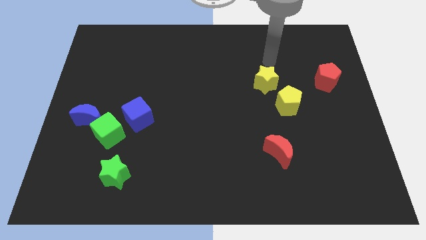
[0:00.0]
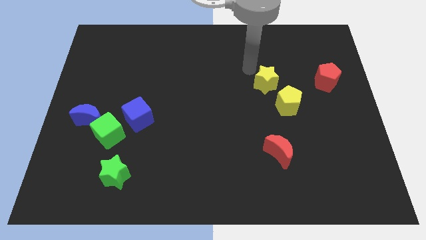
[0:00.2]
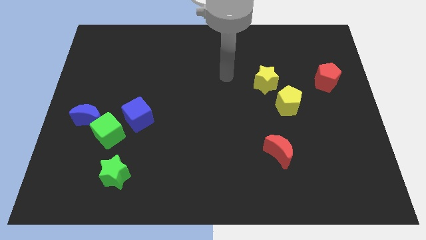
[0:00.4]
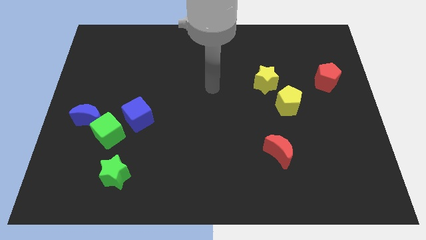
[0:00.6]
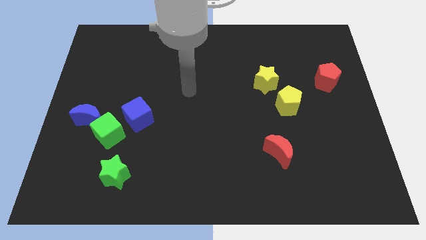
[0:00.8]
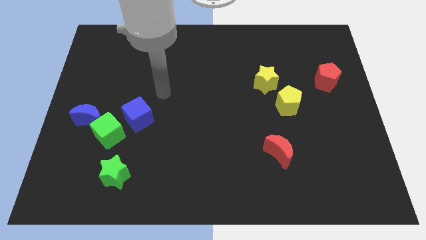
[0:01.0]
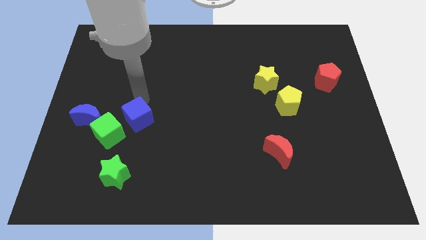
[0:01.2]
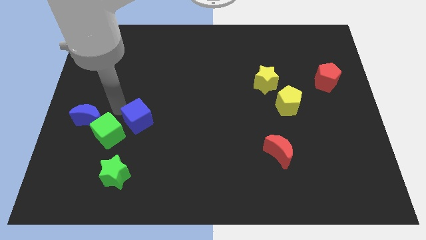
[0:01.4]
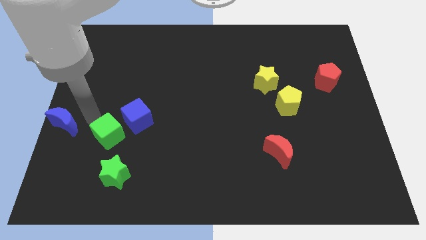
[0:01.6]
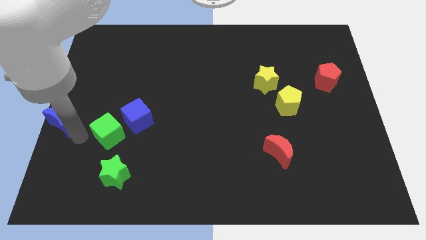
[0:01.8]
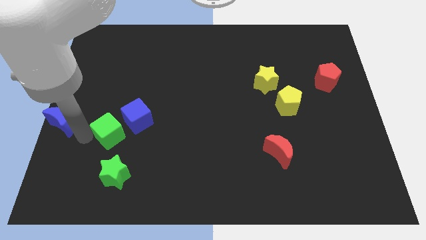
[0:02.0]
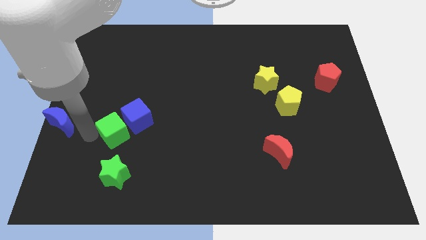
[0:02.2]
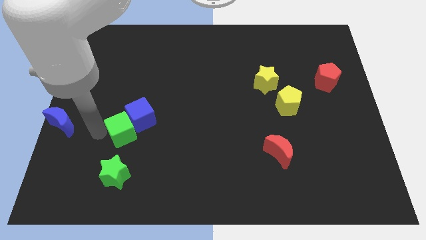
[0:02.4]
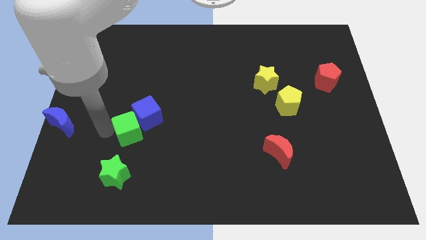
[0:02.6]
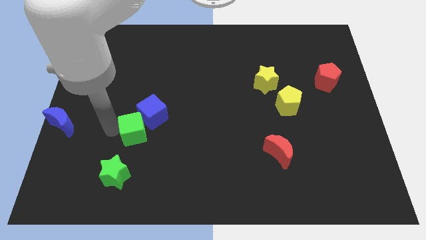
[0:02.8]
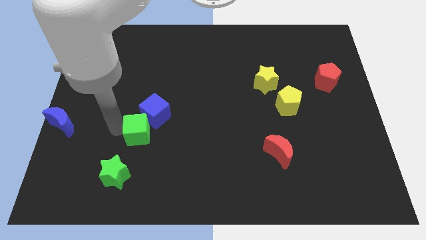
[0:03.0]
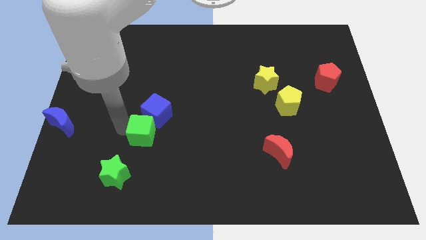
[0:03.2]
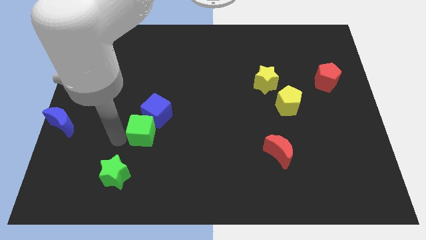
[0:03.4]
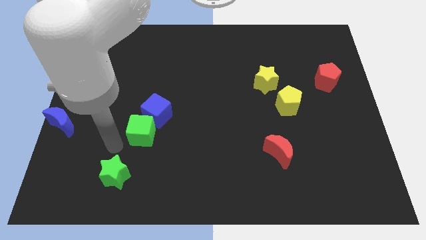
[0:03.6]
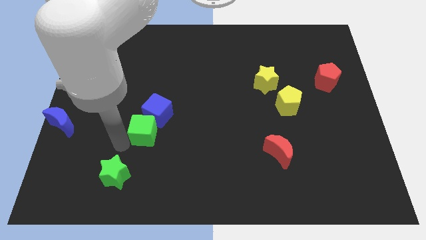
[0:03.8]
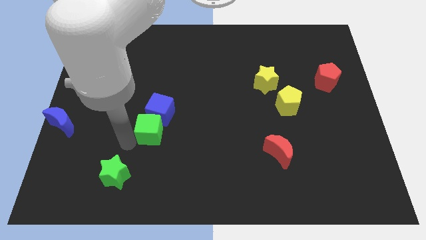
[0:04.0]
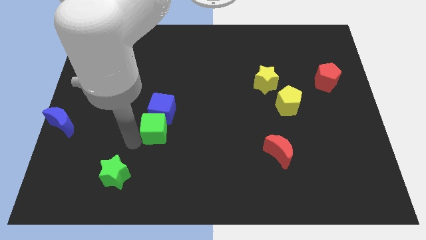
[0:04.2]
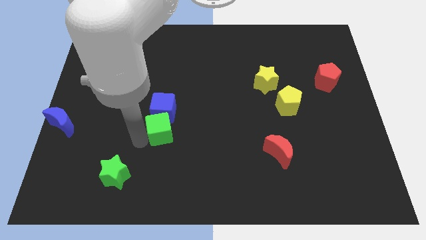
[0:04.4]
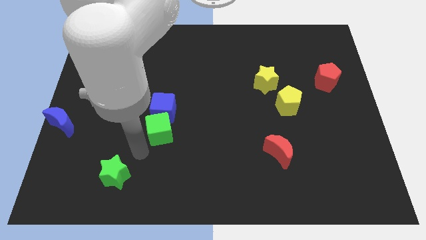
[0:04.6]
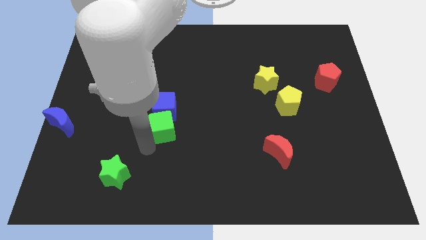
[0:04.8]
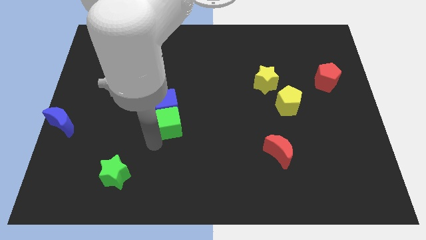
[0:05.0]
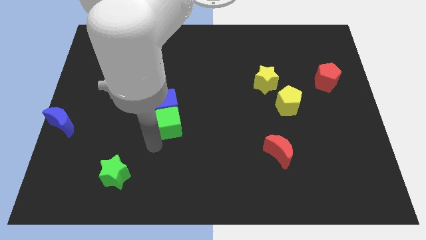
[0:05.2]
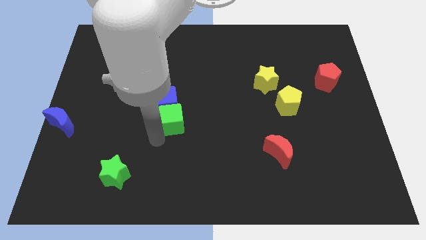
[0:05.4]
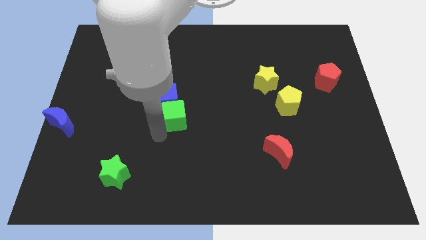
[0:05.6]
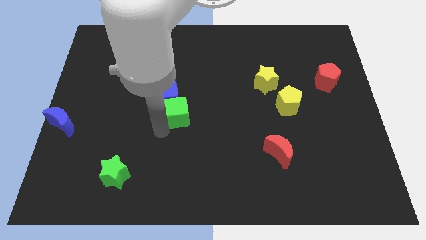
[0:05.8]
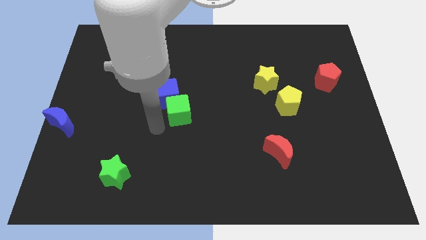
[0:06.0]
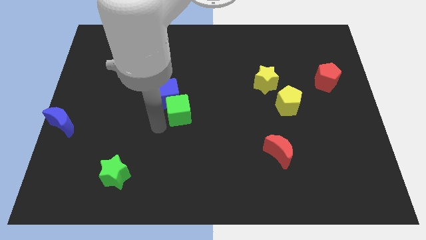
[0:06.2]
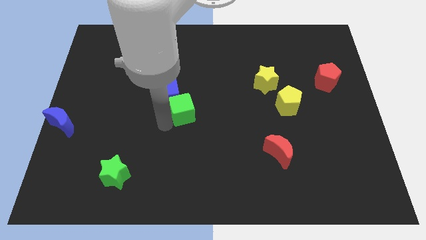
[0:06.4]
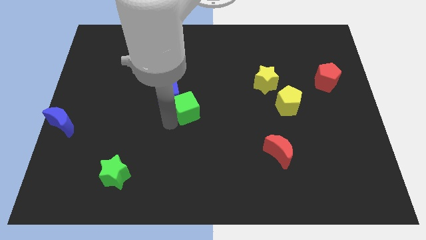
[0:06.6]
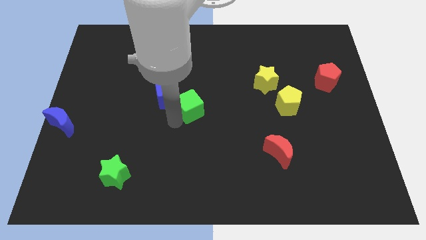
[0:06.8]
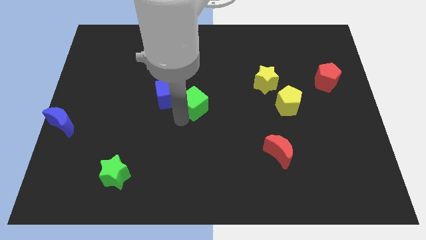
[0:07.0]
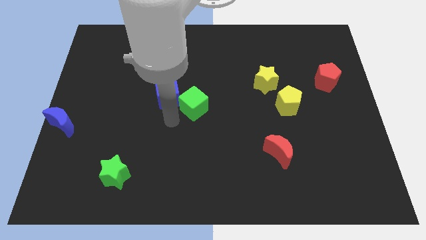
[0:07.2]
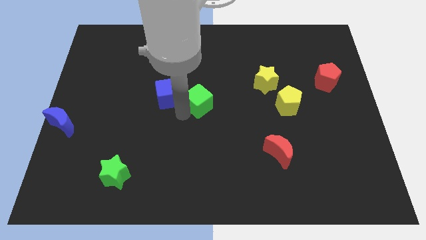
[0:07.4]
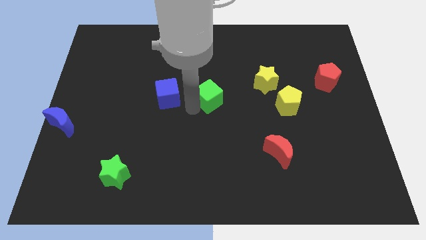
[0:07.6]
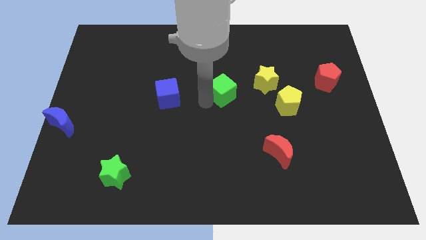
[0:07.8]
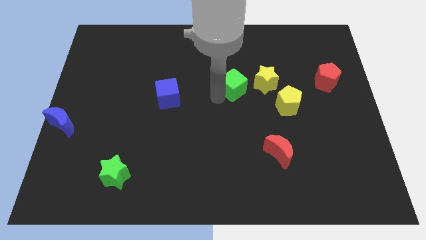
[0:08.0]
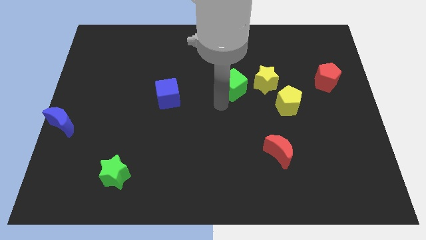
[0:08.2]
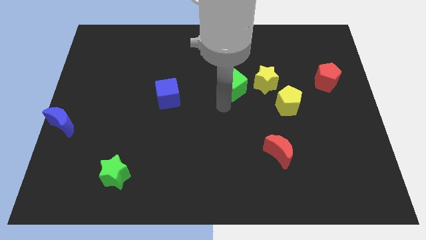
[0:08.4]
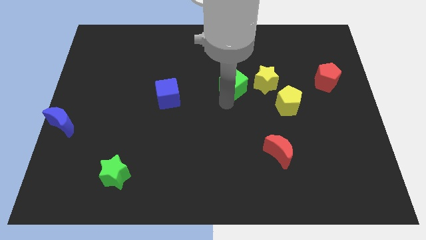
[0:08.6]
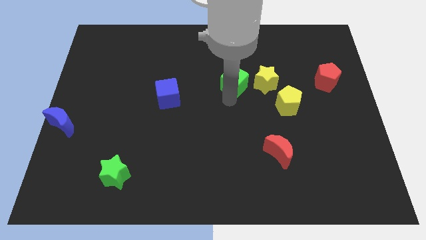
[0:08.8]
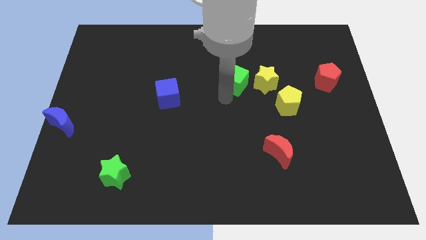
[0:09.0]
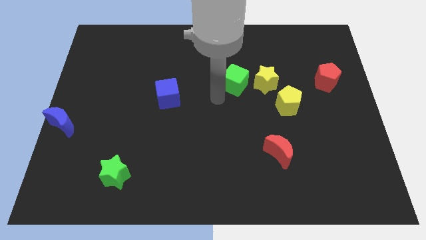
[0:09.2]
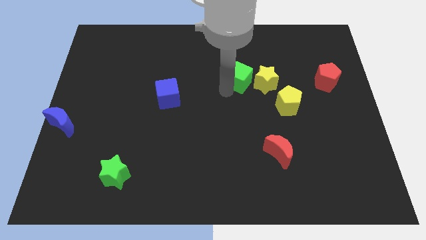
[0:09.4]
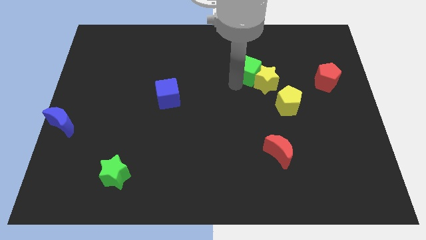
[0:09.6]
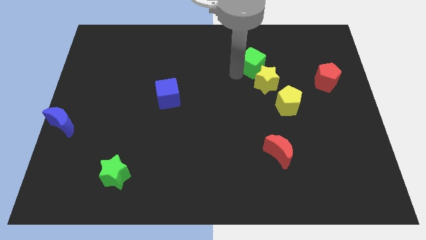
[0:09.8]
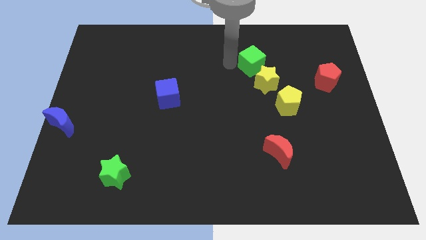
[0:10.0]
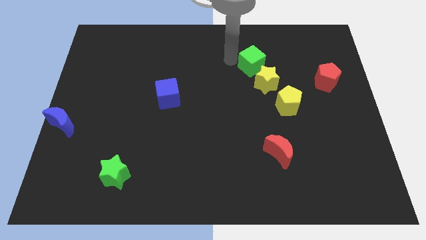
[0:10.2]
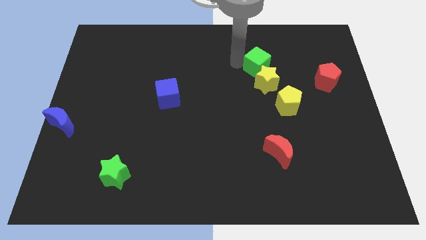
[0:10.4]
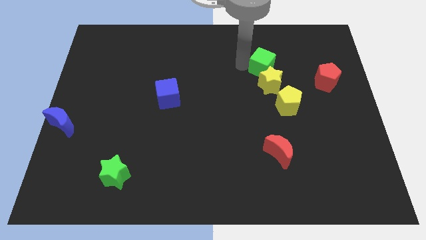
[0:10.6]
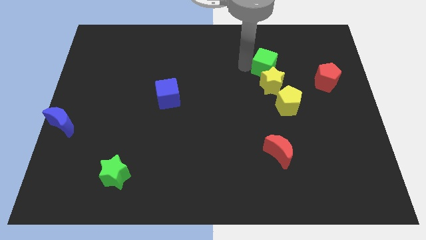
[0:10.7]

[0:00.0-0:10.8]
push the green cube to the top side of the yellow pentagon

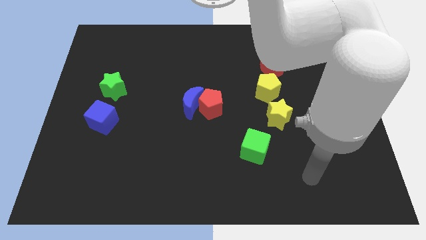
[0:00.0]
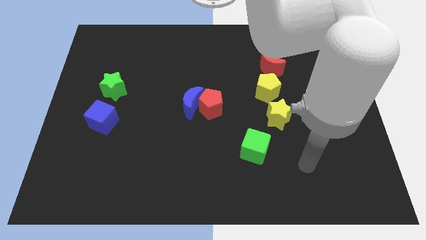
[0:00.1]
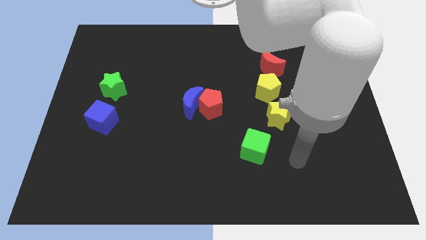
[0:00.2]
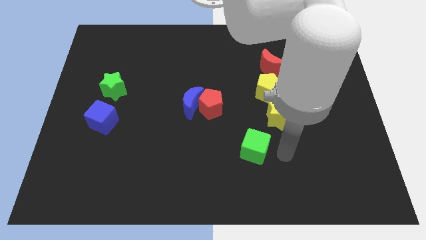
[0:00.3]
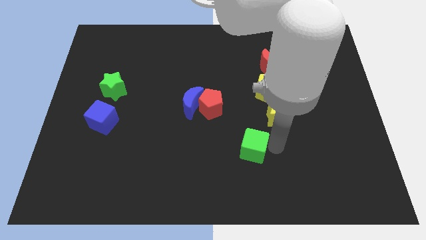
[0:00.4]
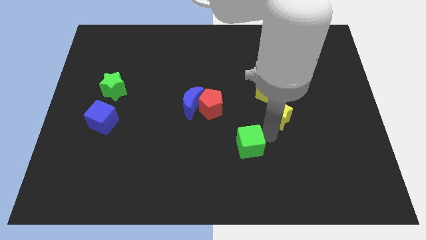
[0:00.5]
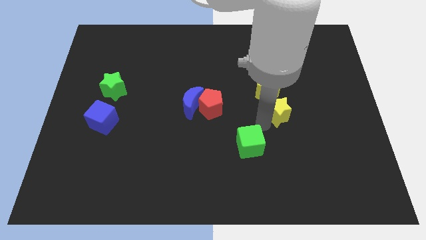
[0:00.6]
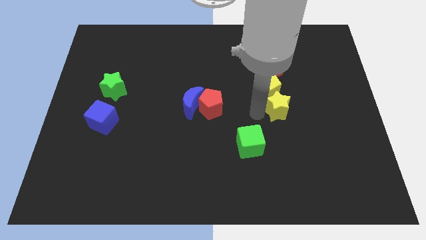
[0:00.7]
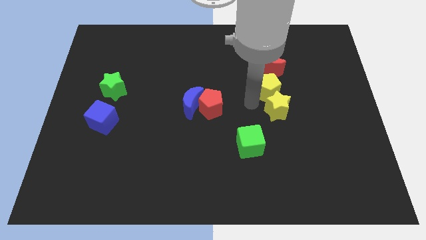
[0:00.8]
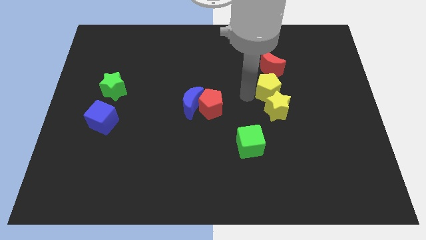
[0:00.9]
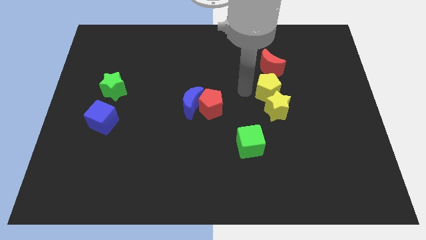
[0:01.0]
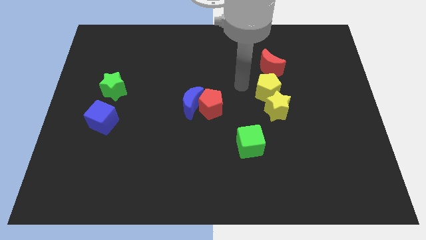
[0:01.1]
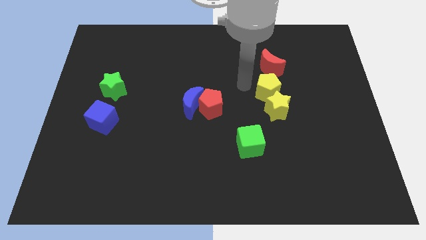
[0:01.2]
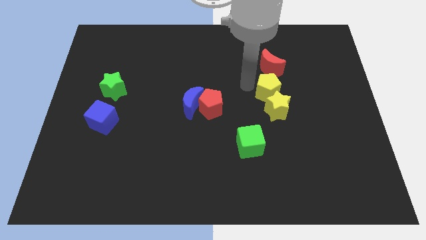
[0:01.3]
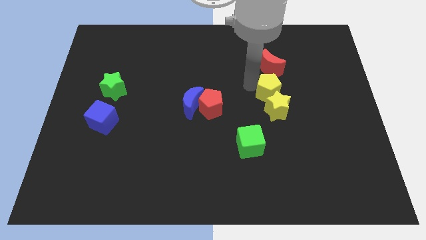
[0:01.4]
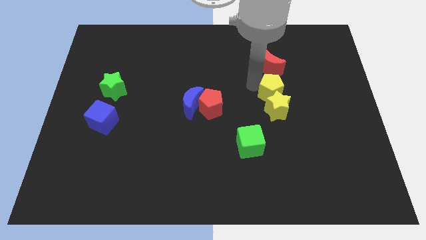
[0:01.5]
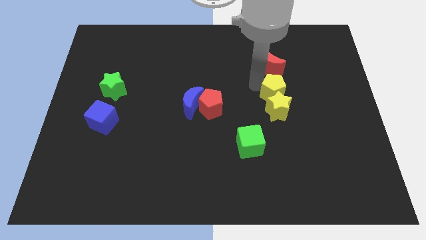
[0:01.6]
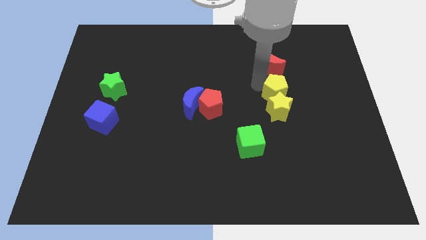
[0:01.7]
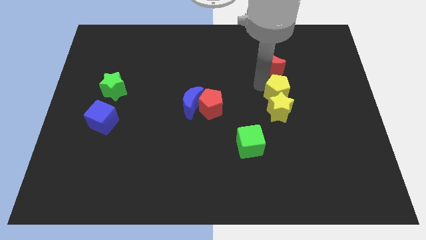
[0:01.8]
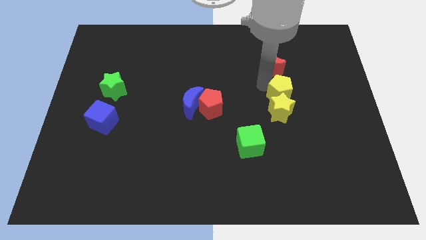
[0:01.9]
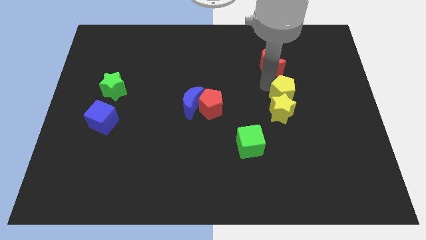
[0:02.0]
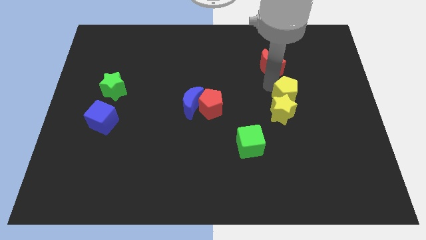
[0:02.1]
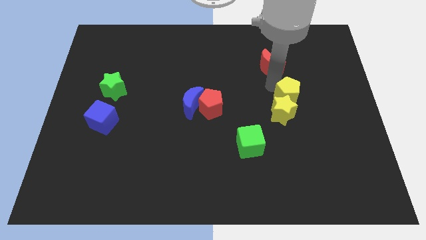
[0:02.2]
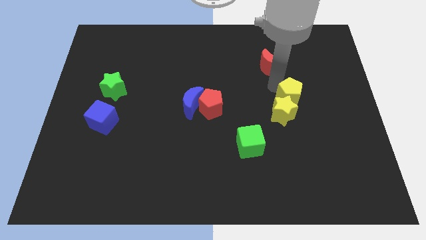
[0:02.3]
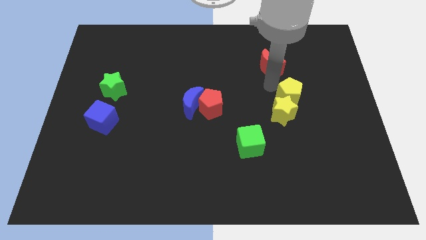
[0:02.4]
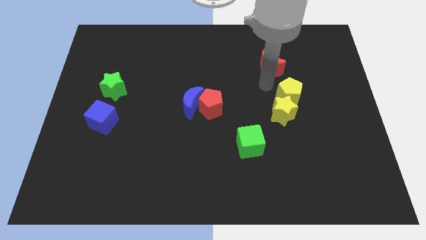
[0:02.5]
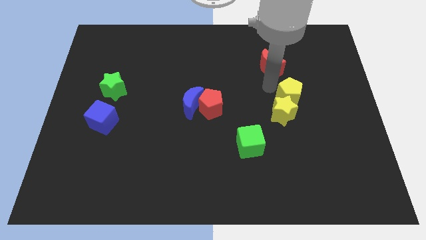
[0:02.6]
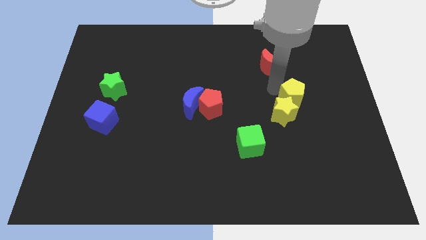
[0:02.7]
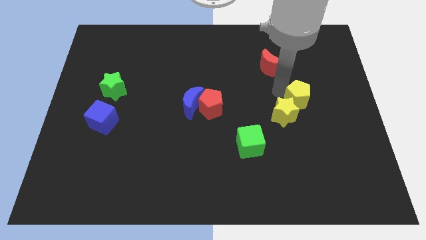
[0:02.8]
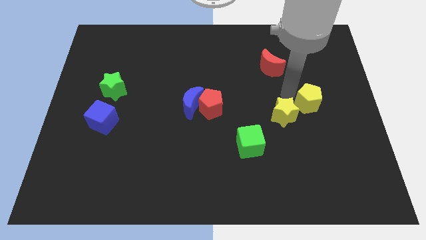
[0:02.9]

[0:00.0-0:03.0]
slide the yellow pentagon to the right side of the yellow star
